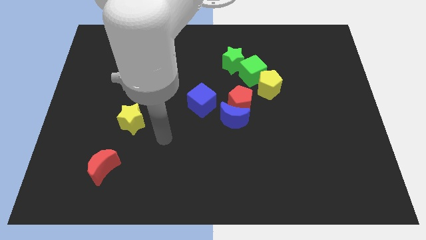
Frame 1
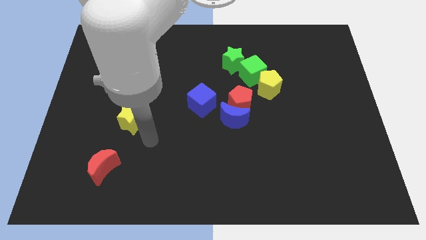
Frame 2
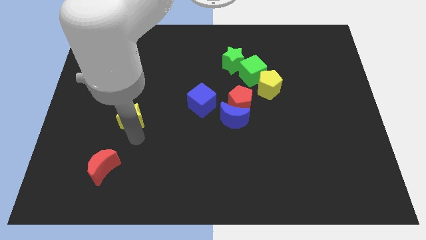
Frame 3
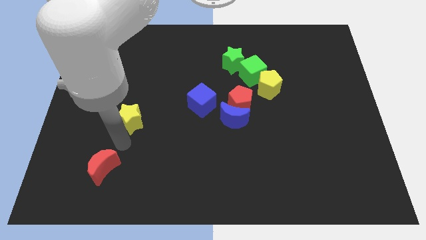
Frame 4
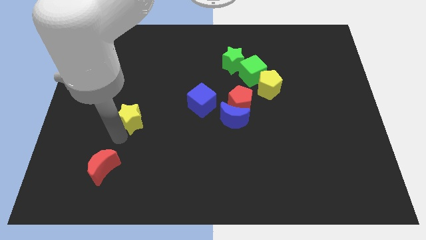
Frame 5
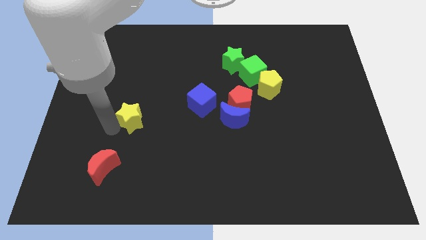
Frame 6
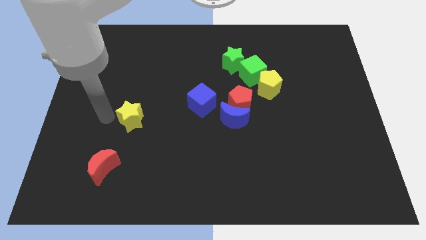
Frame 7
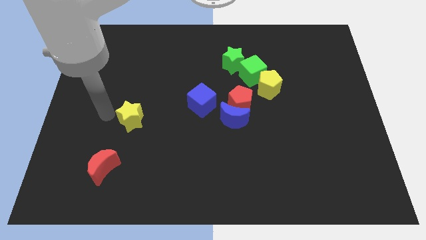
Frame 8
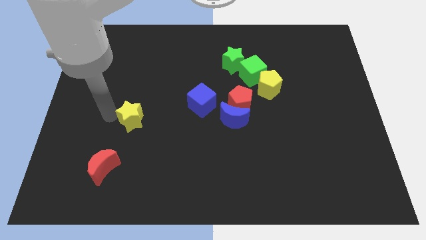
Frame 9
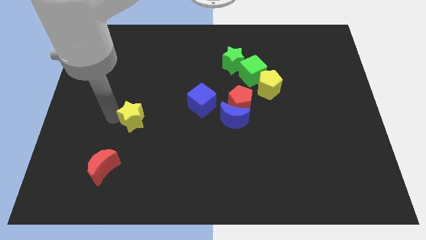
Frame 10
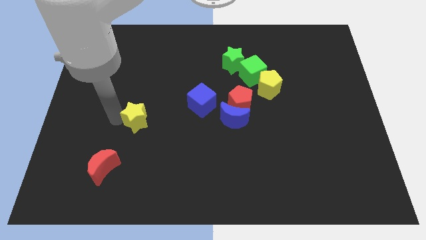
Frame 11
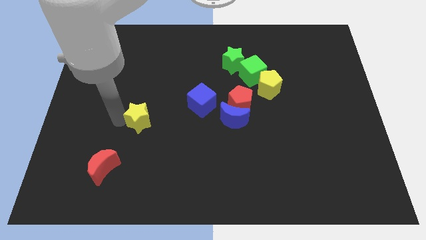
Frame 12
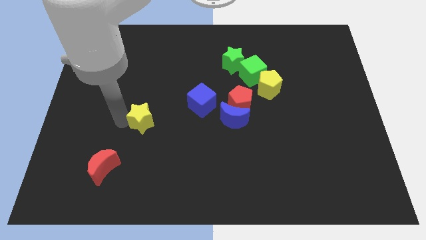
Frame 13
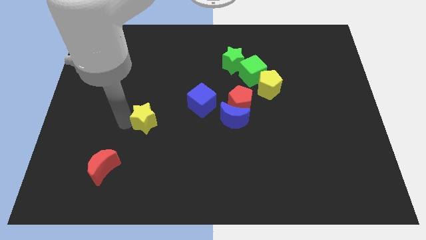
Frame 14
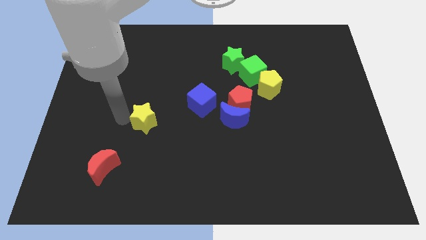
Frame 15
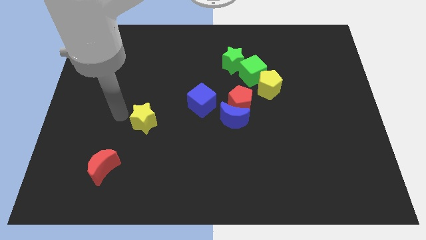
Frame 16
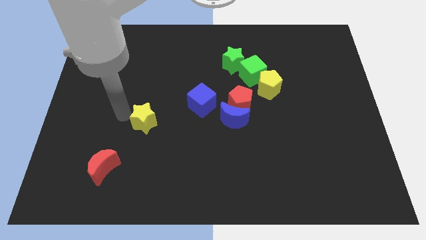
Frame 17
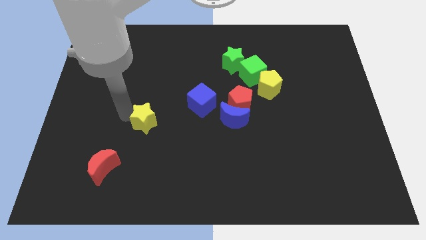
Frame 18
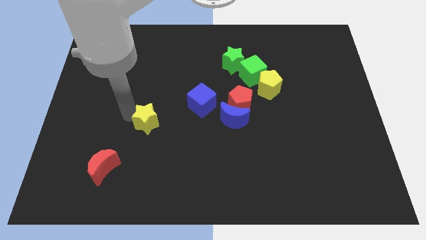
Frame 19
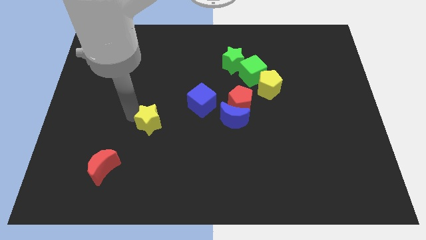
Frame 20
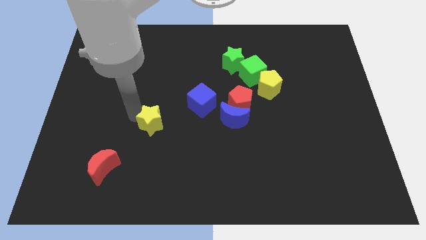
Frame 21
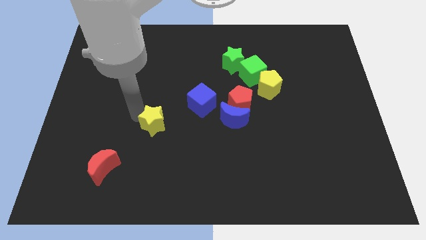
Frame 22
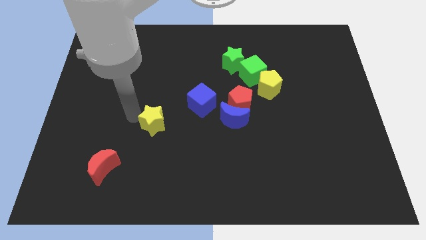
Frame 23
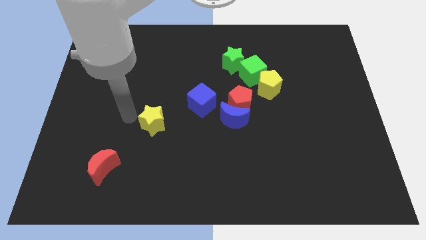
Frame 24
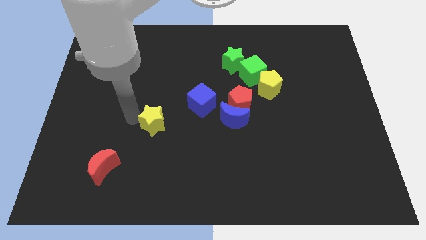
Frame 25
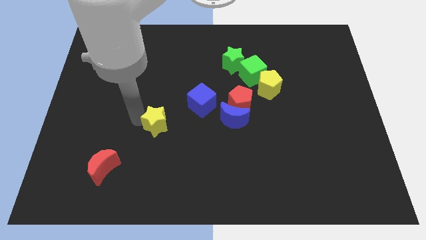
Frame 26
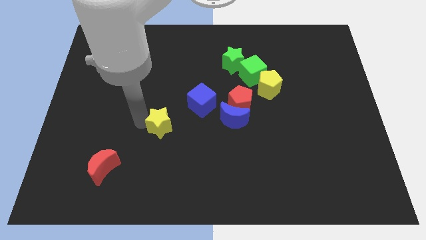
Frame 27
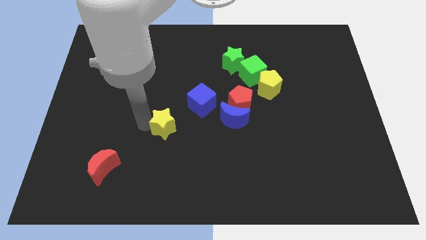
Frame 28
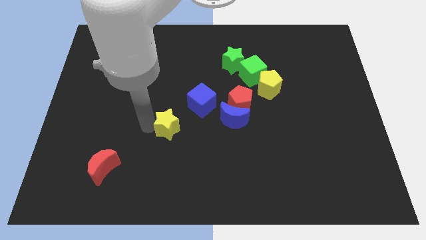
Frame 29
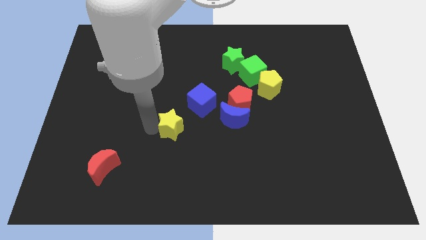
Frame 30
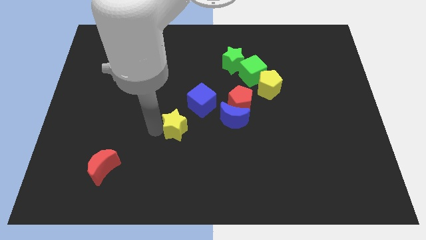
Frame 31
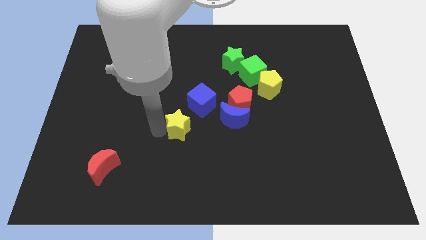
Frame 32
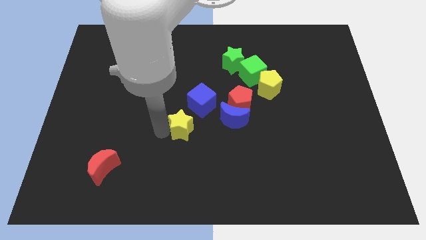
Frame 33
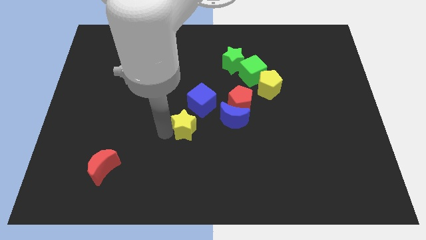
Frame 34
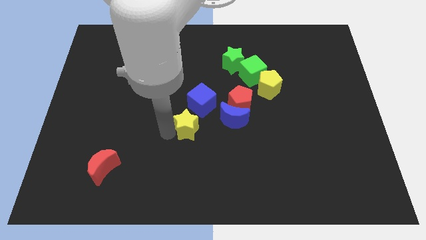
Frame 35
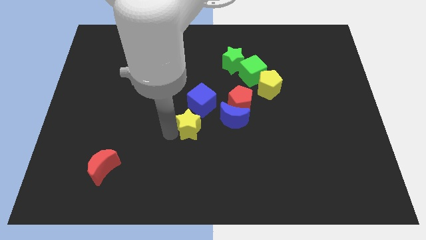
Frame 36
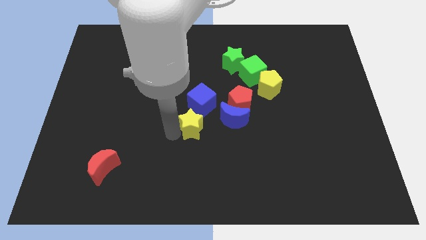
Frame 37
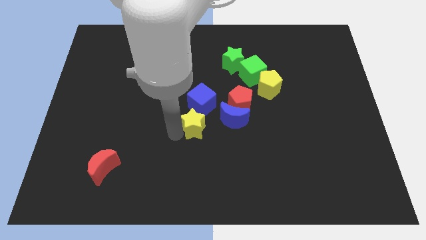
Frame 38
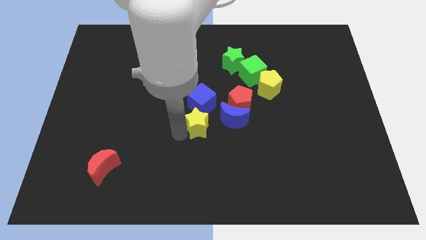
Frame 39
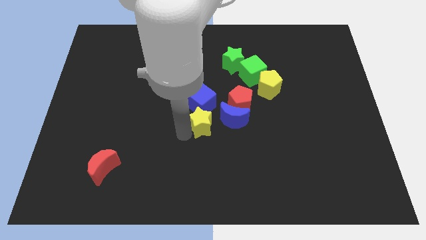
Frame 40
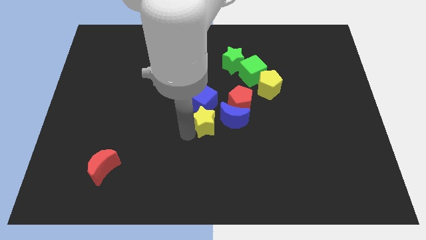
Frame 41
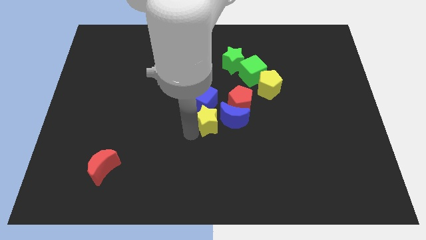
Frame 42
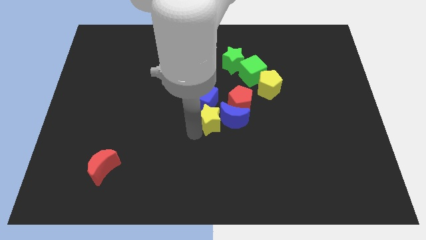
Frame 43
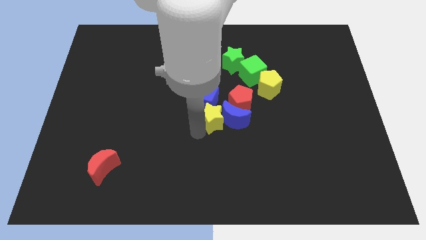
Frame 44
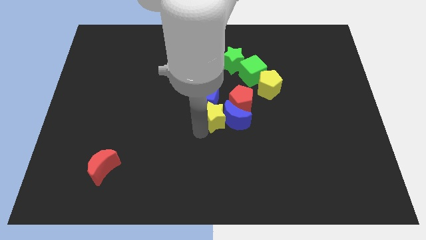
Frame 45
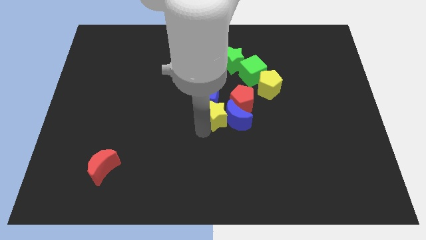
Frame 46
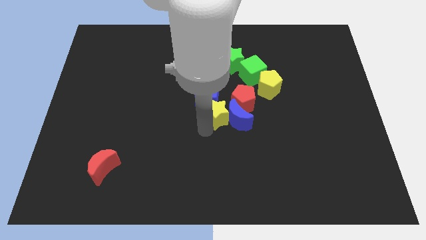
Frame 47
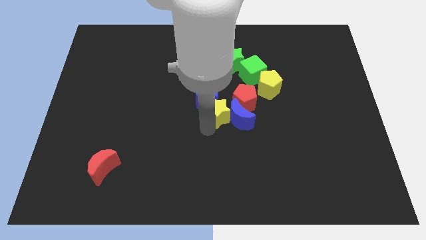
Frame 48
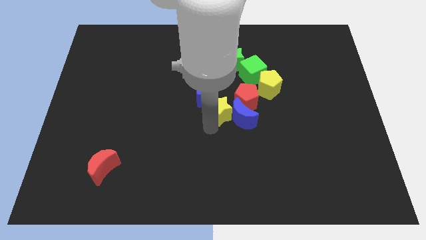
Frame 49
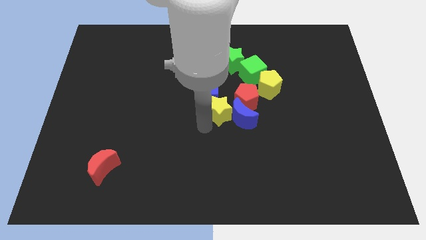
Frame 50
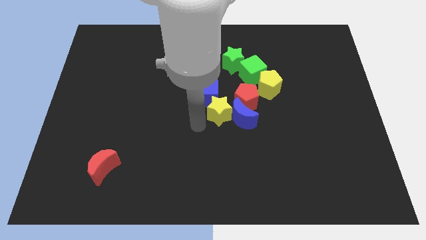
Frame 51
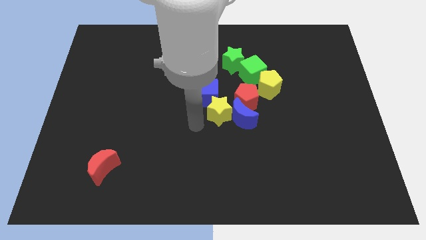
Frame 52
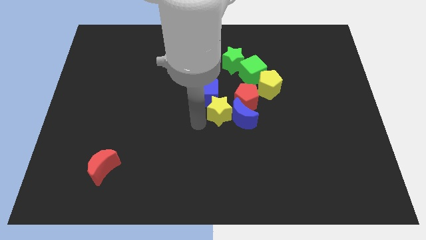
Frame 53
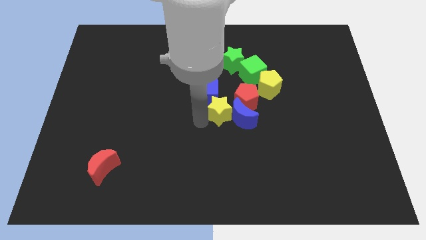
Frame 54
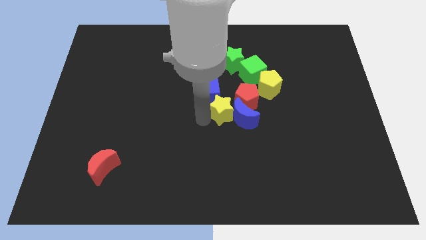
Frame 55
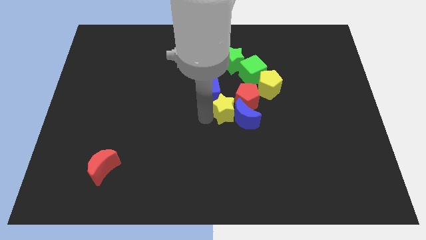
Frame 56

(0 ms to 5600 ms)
push the yellow star close to the red pentagon

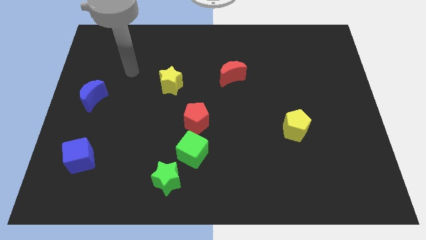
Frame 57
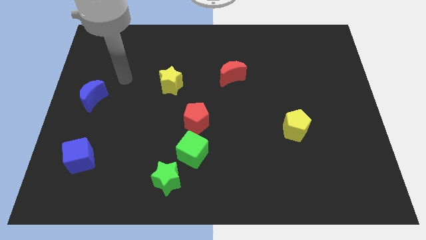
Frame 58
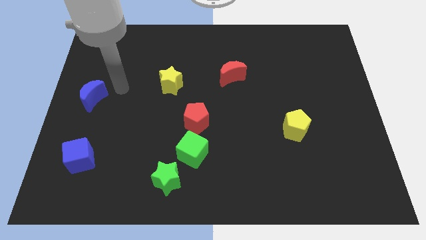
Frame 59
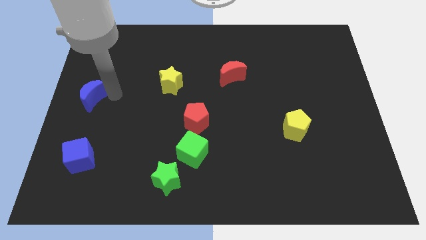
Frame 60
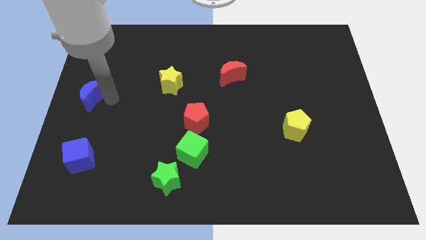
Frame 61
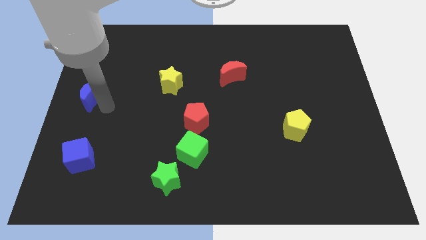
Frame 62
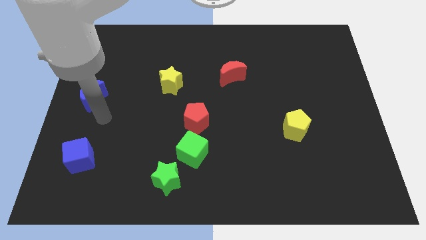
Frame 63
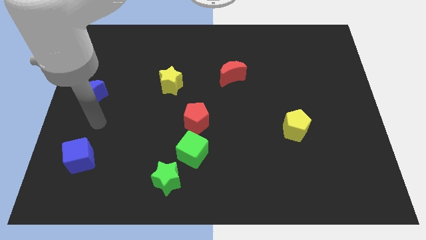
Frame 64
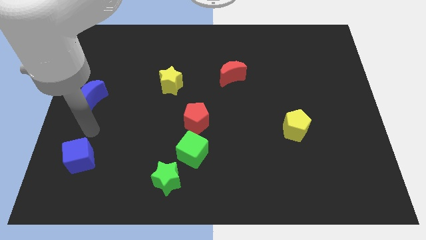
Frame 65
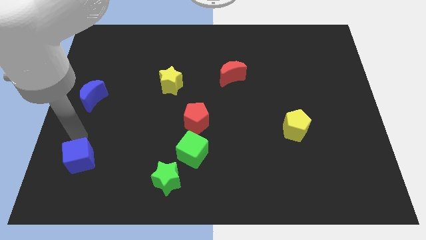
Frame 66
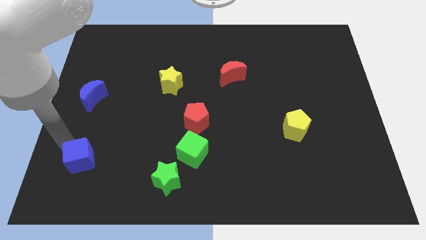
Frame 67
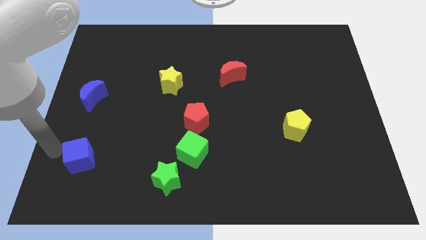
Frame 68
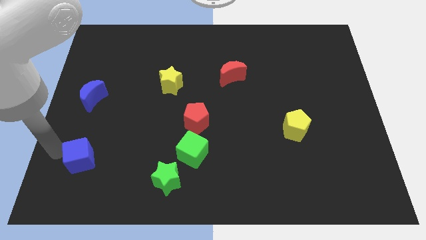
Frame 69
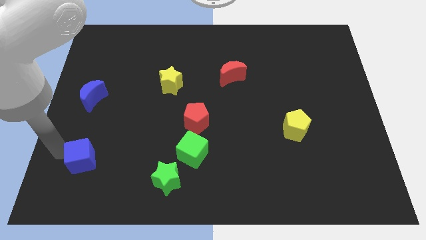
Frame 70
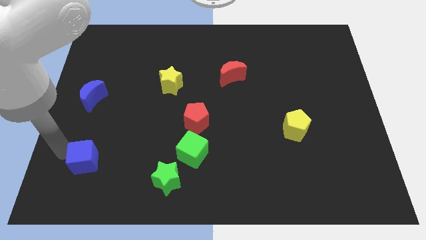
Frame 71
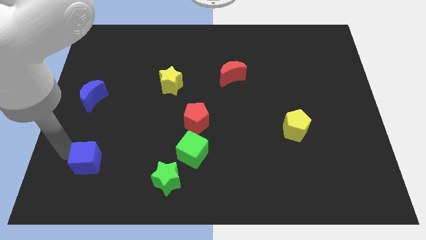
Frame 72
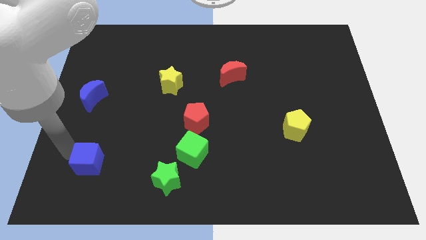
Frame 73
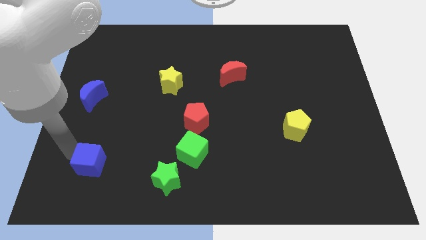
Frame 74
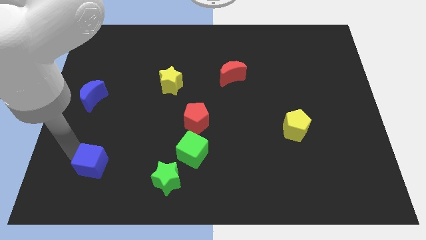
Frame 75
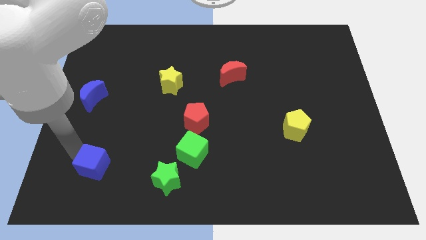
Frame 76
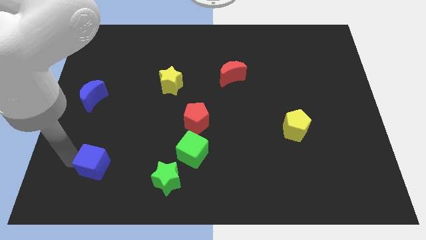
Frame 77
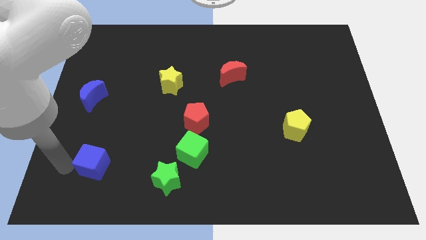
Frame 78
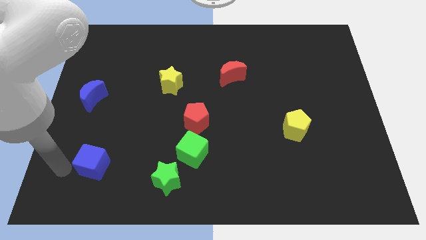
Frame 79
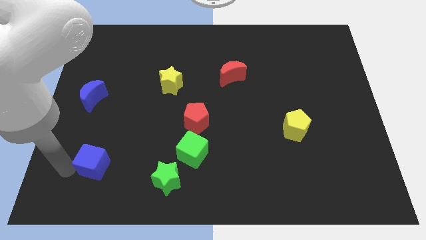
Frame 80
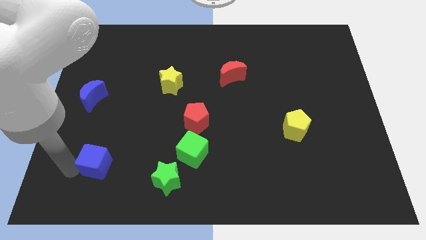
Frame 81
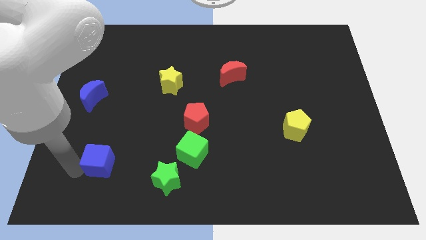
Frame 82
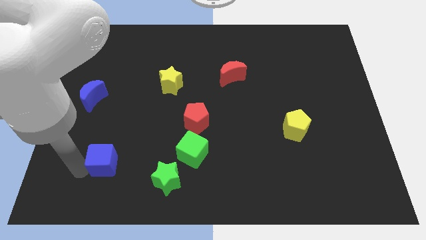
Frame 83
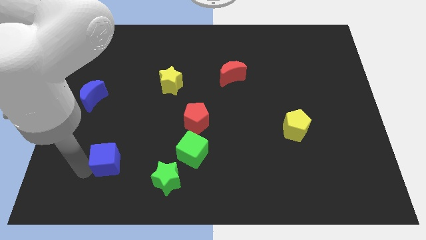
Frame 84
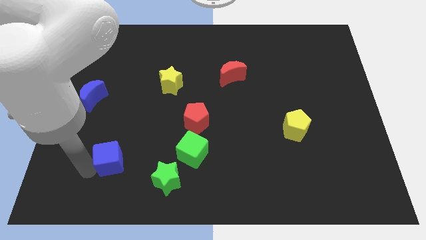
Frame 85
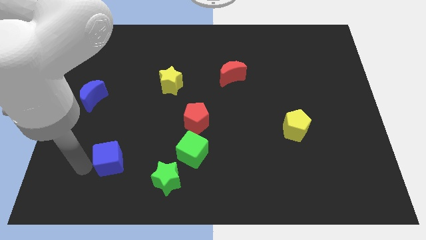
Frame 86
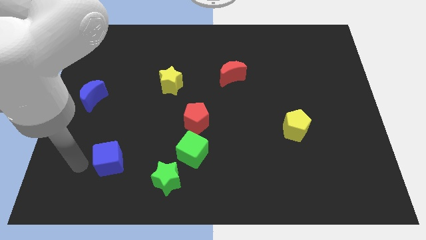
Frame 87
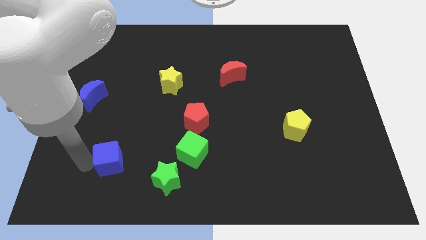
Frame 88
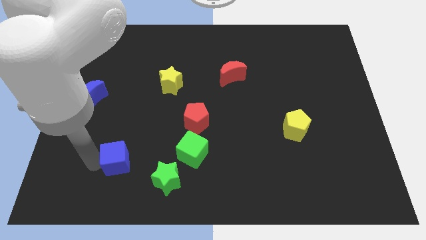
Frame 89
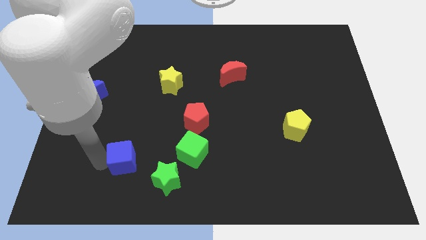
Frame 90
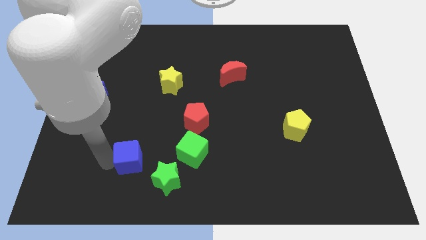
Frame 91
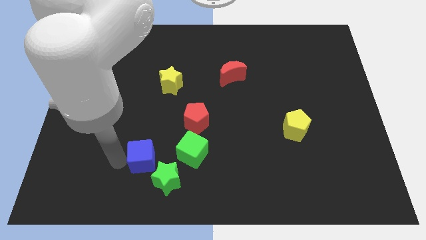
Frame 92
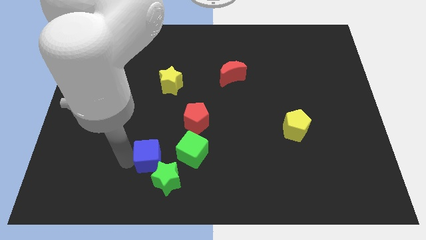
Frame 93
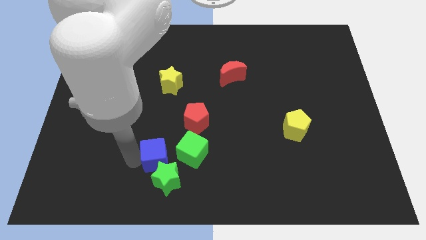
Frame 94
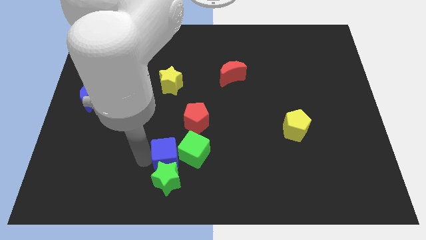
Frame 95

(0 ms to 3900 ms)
move the blue cube towards the green cube
